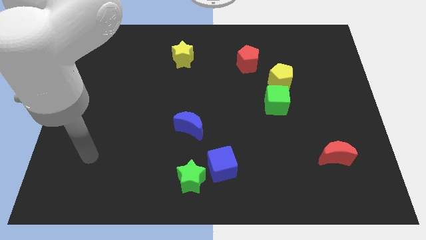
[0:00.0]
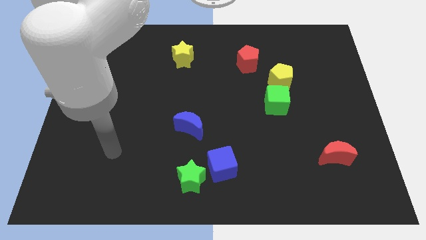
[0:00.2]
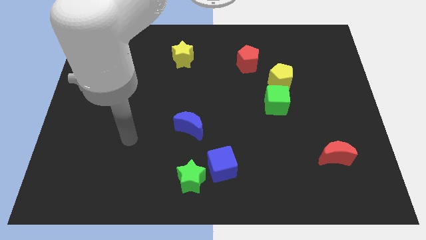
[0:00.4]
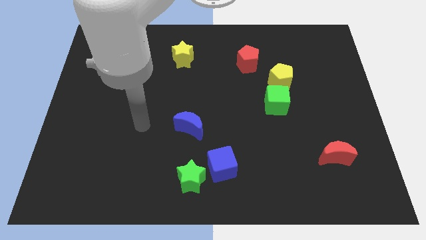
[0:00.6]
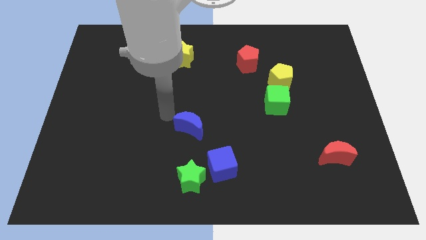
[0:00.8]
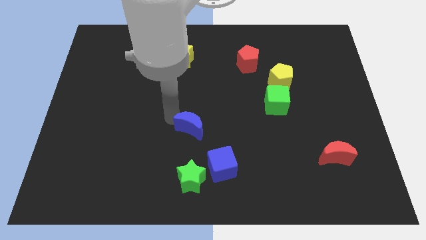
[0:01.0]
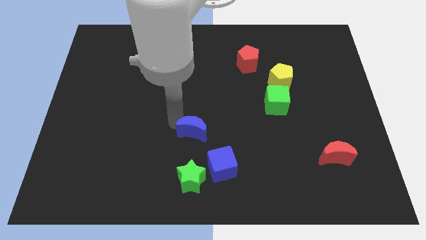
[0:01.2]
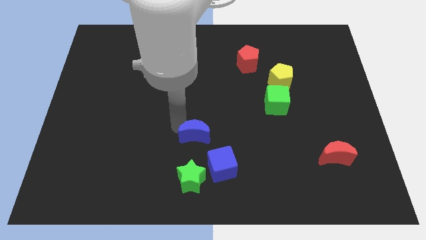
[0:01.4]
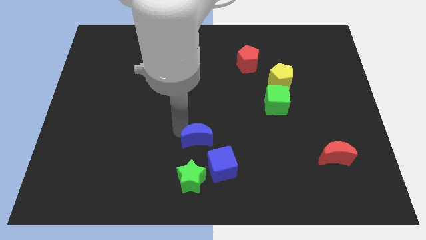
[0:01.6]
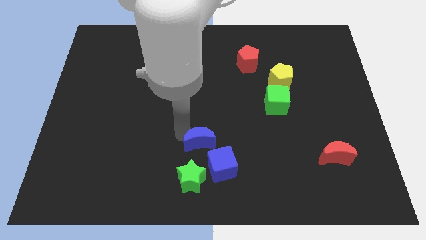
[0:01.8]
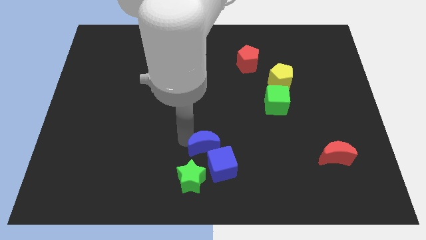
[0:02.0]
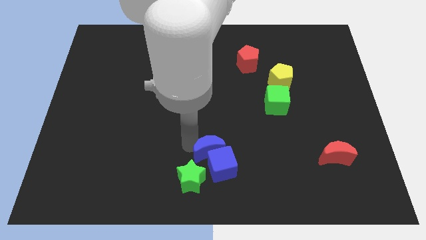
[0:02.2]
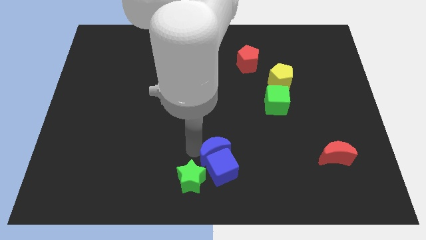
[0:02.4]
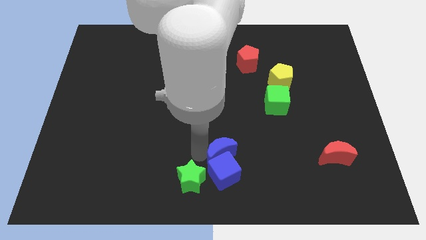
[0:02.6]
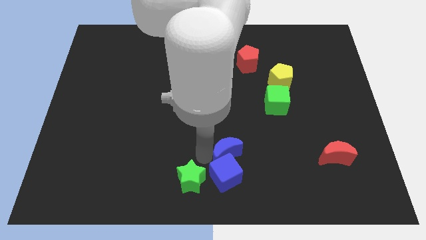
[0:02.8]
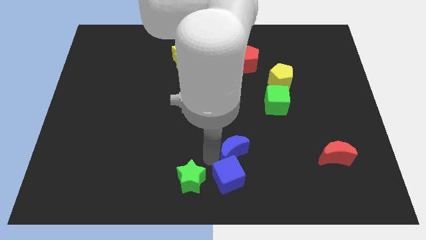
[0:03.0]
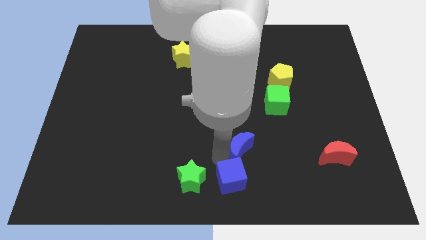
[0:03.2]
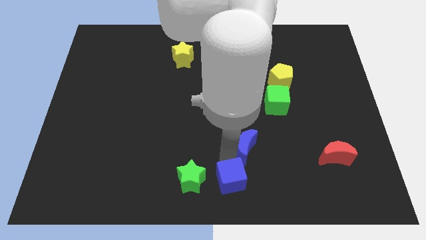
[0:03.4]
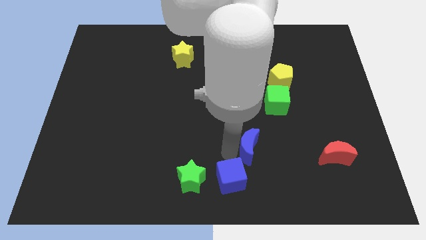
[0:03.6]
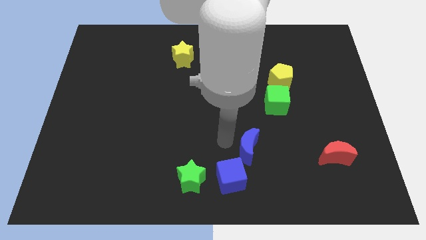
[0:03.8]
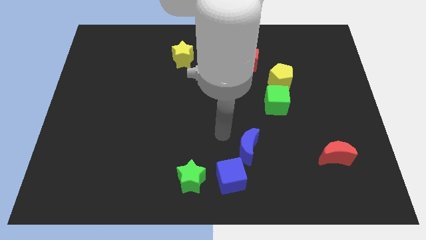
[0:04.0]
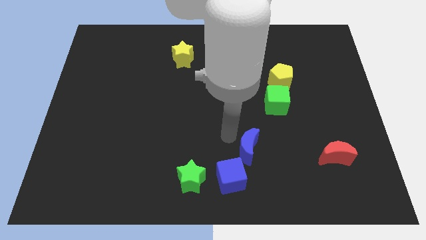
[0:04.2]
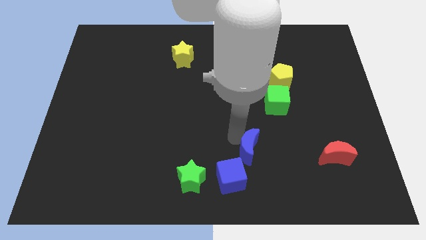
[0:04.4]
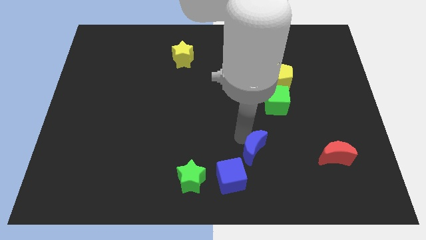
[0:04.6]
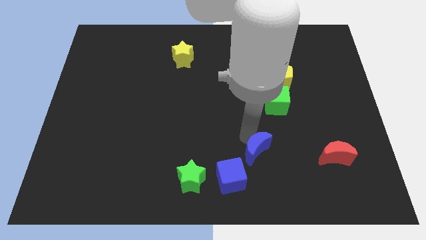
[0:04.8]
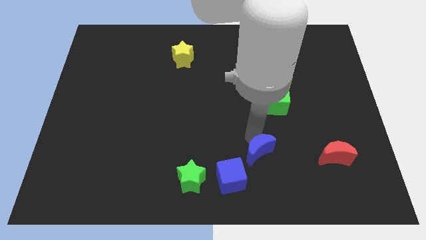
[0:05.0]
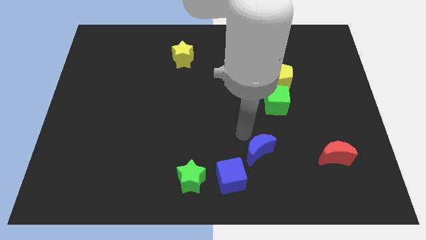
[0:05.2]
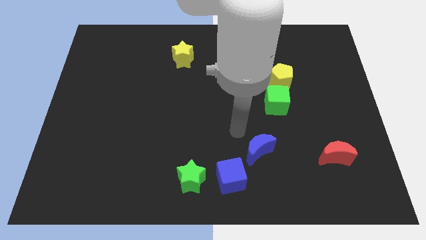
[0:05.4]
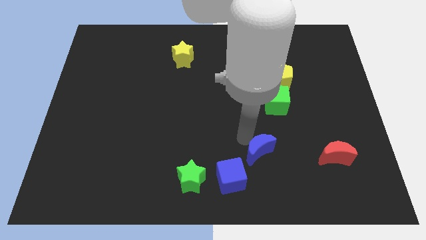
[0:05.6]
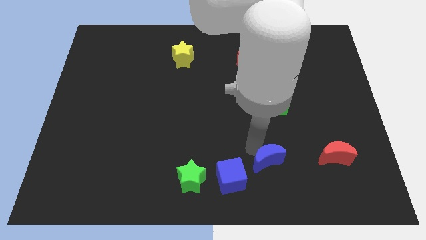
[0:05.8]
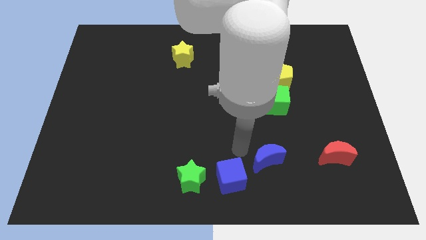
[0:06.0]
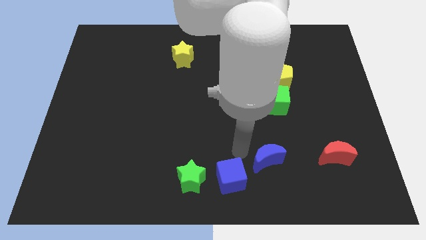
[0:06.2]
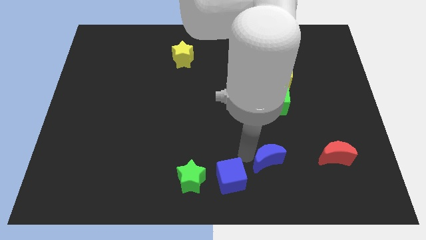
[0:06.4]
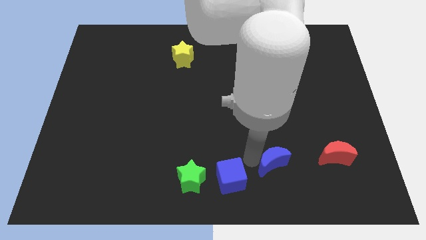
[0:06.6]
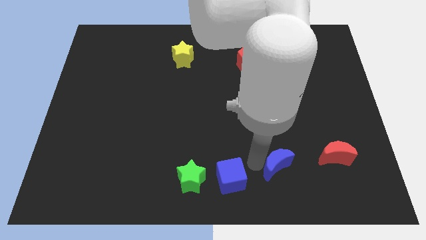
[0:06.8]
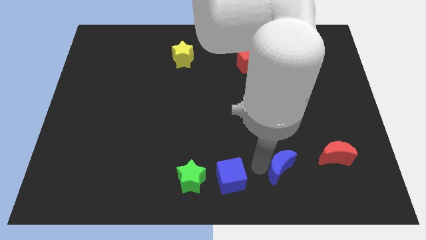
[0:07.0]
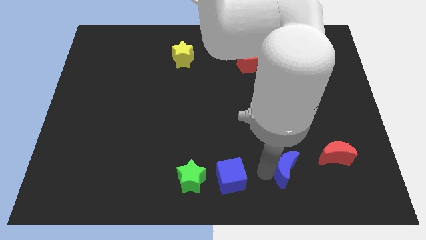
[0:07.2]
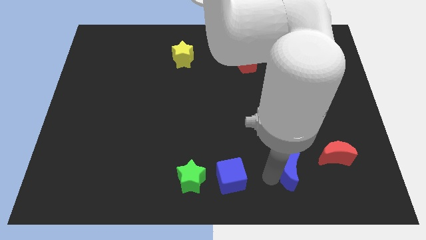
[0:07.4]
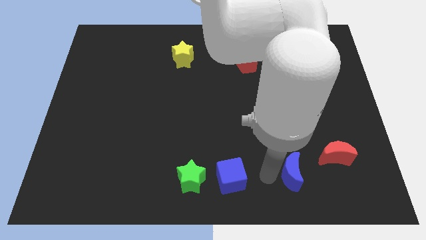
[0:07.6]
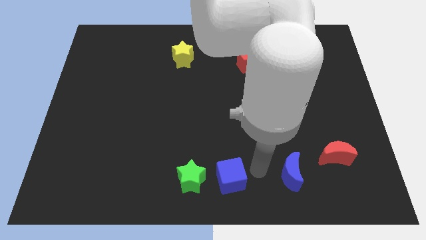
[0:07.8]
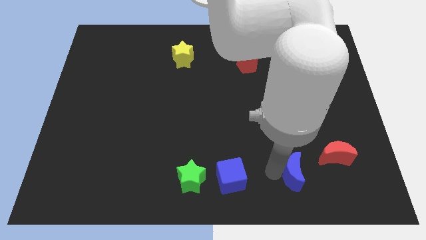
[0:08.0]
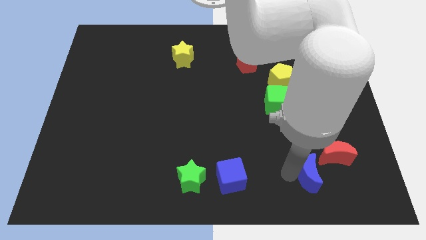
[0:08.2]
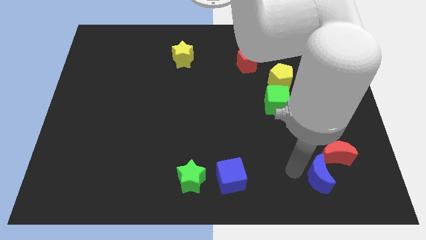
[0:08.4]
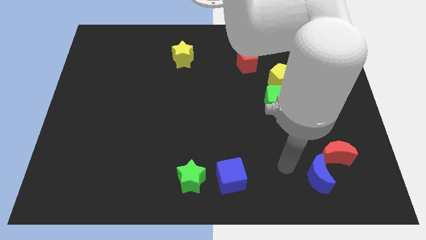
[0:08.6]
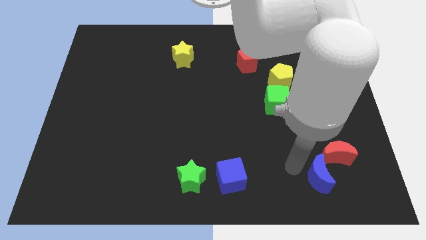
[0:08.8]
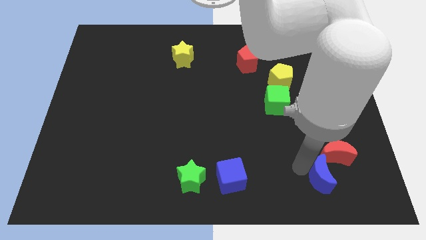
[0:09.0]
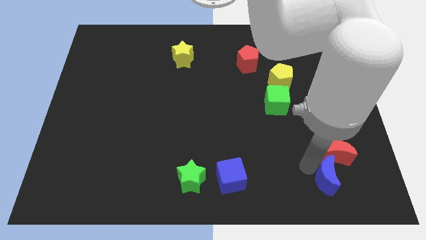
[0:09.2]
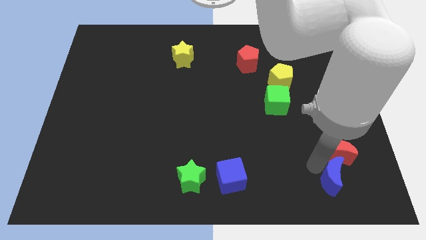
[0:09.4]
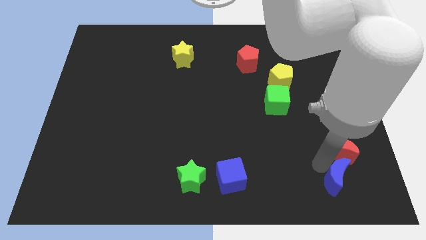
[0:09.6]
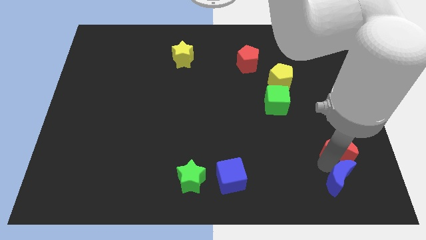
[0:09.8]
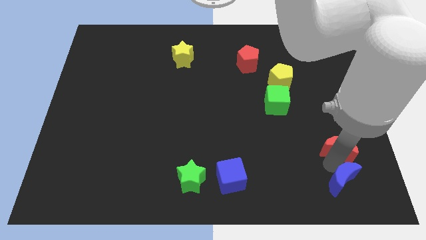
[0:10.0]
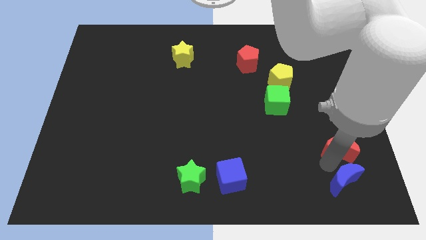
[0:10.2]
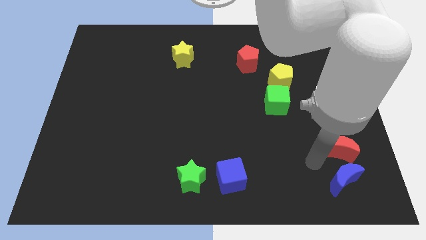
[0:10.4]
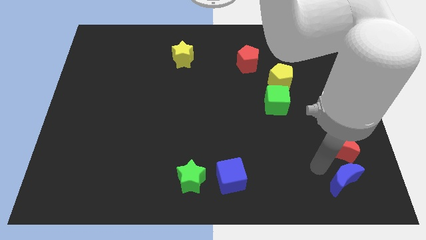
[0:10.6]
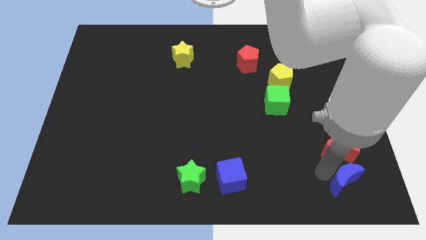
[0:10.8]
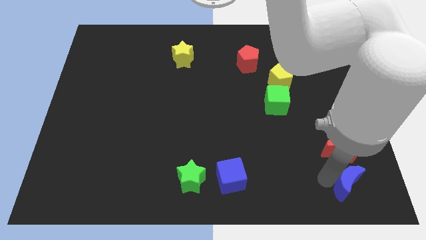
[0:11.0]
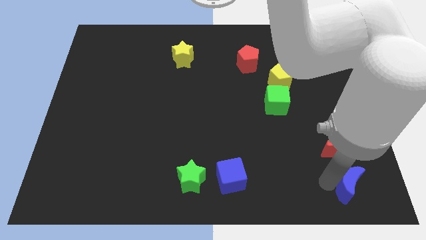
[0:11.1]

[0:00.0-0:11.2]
slide the blue moon to the bottom right corner

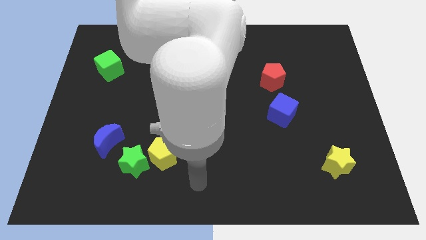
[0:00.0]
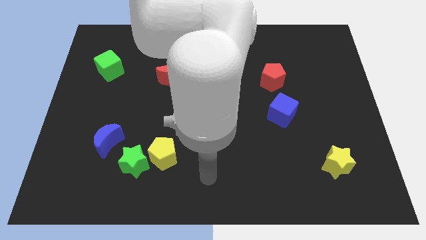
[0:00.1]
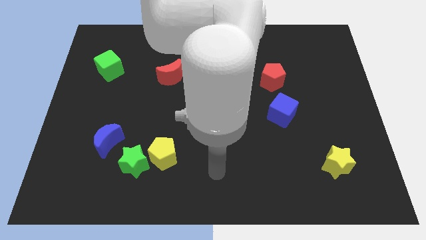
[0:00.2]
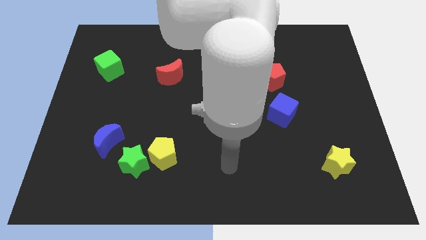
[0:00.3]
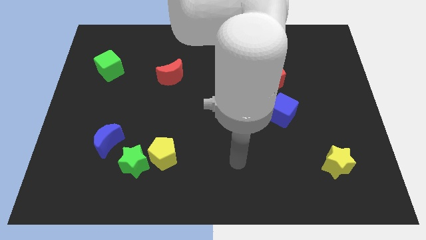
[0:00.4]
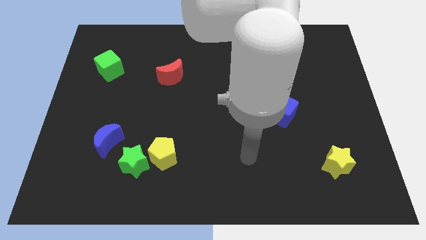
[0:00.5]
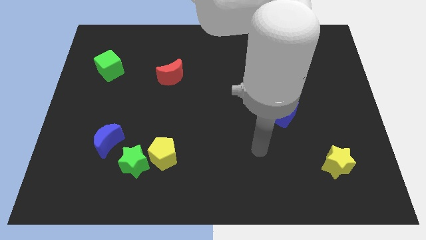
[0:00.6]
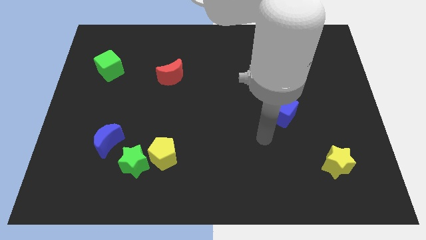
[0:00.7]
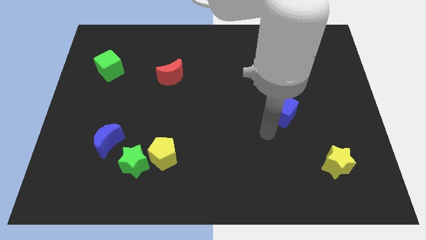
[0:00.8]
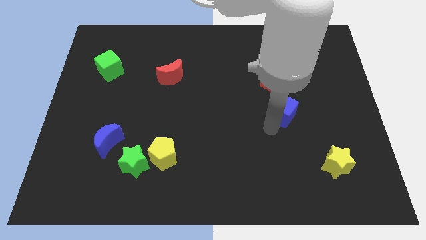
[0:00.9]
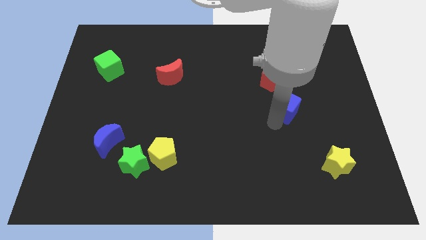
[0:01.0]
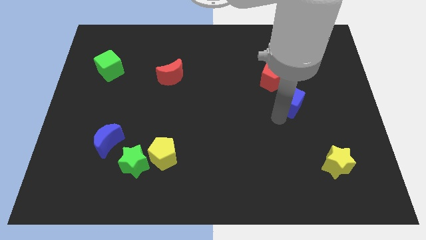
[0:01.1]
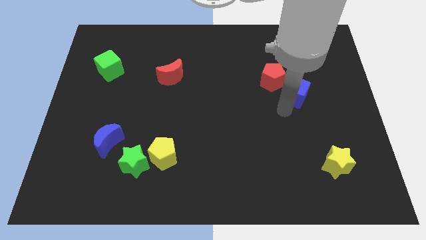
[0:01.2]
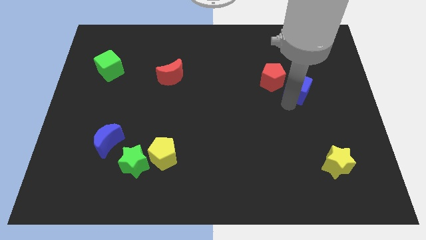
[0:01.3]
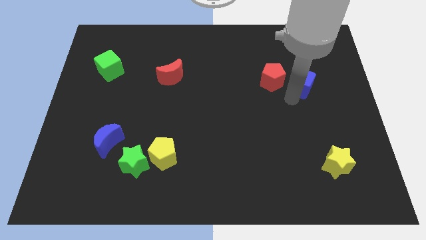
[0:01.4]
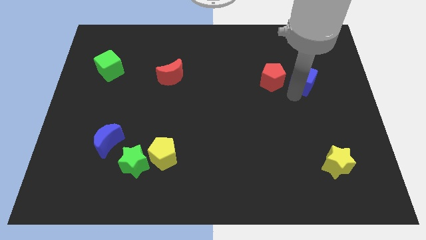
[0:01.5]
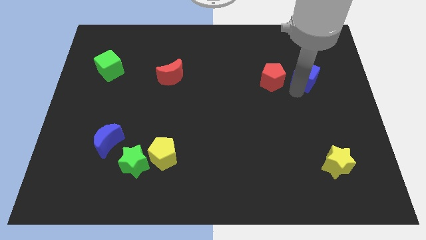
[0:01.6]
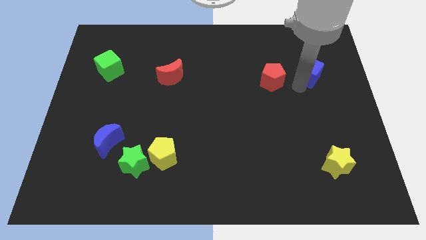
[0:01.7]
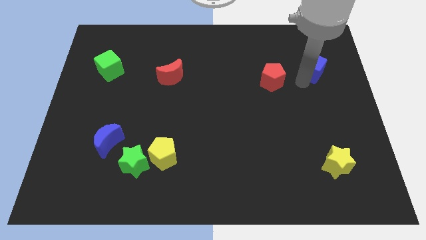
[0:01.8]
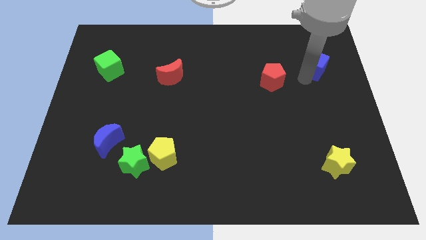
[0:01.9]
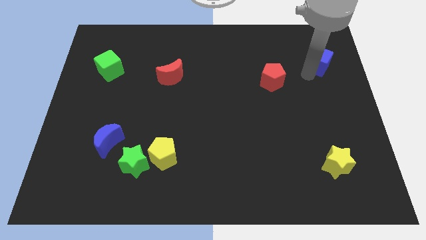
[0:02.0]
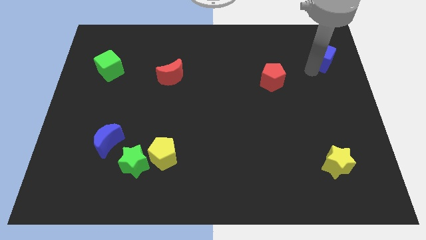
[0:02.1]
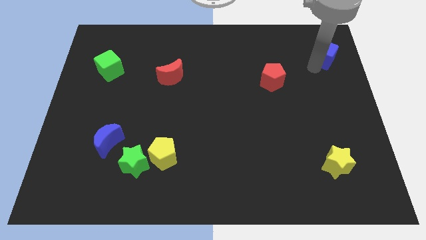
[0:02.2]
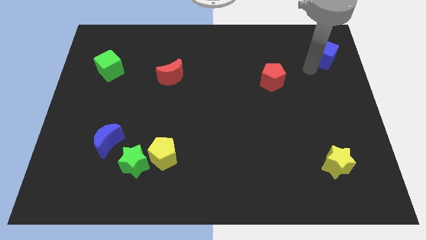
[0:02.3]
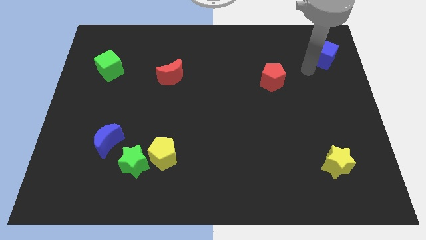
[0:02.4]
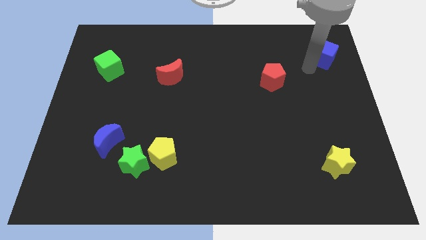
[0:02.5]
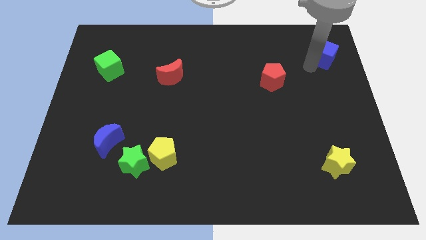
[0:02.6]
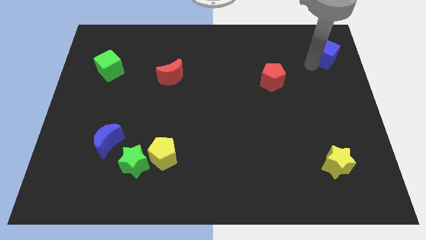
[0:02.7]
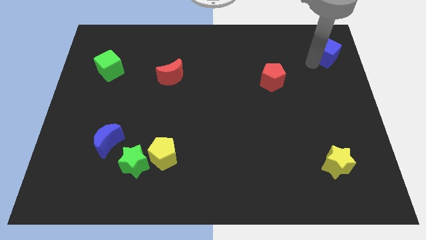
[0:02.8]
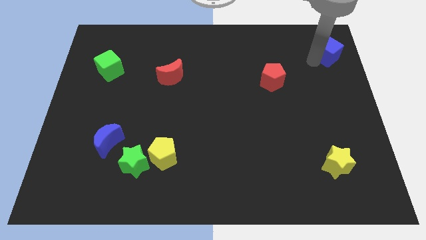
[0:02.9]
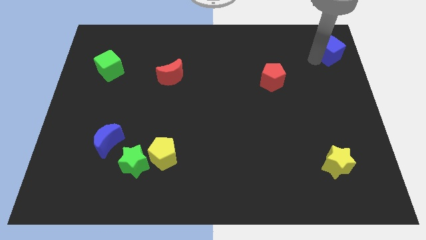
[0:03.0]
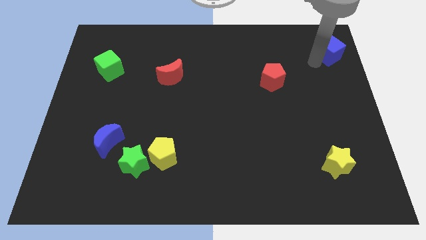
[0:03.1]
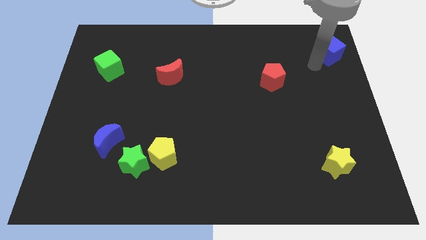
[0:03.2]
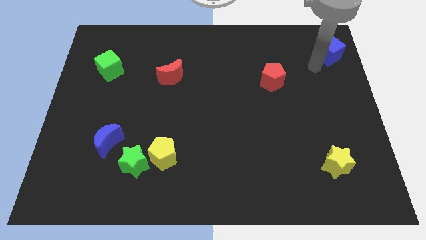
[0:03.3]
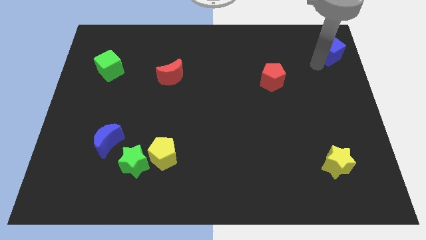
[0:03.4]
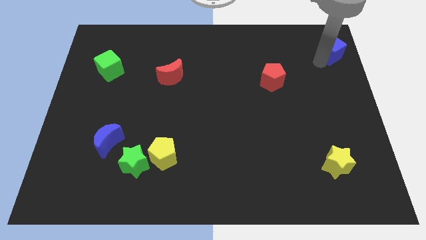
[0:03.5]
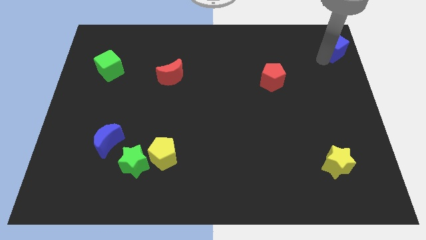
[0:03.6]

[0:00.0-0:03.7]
push the blue cube to the top right
